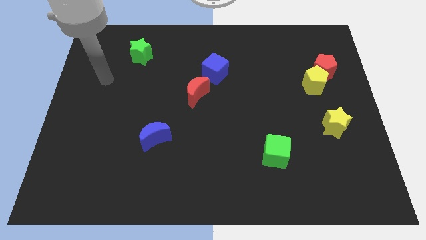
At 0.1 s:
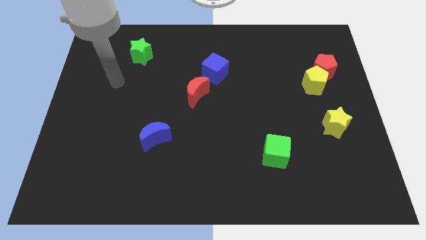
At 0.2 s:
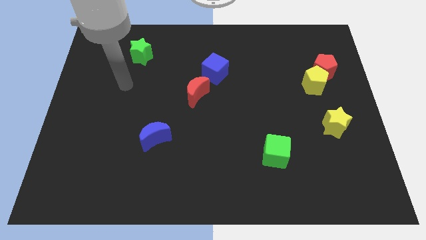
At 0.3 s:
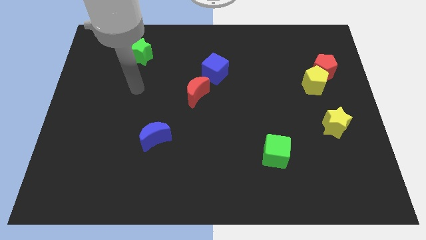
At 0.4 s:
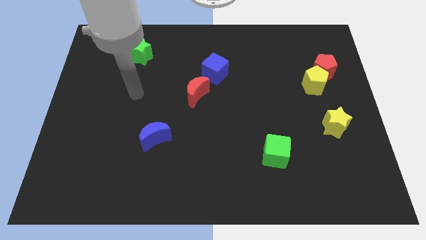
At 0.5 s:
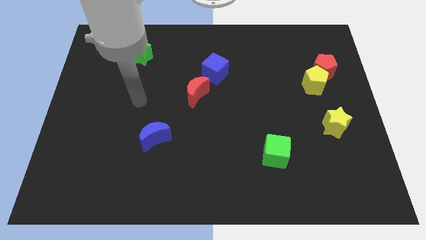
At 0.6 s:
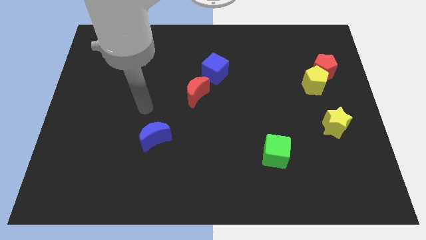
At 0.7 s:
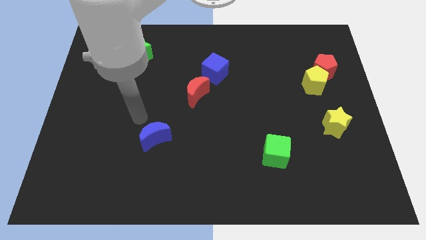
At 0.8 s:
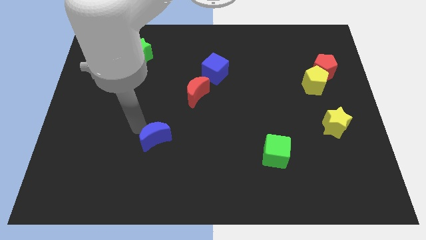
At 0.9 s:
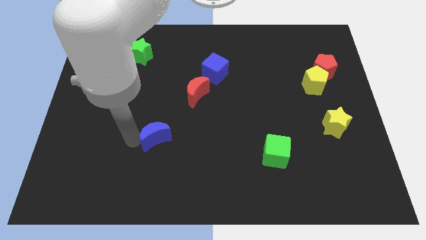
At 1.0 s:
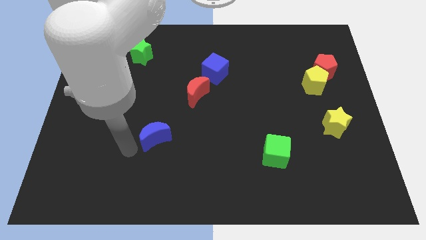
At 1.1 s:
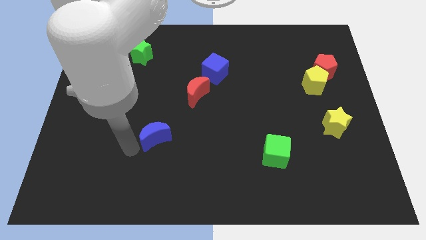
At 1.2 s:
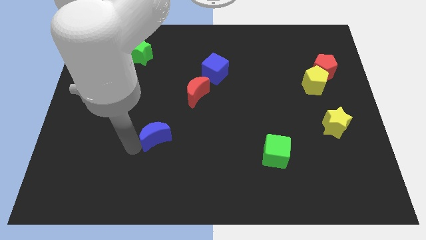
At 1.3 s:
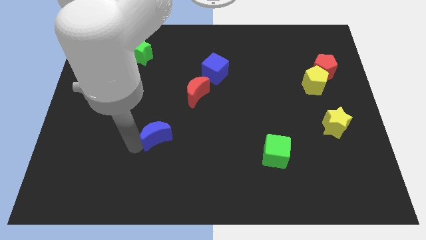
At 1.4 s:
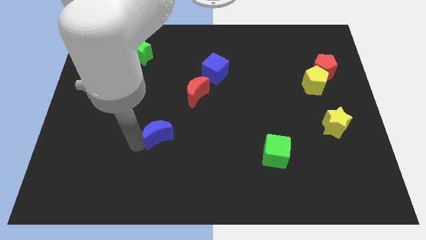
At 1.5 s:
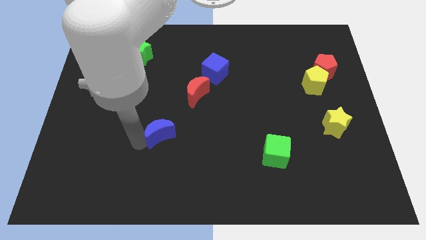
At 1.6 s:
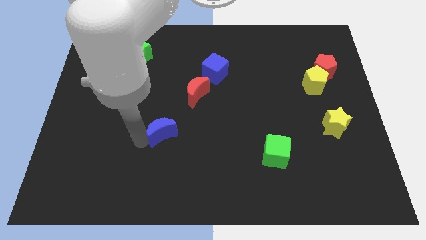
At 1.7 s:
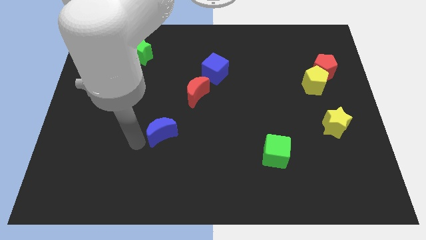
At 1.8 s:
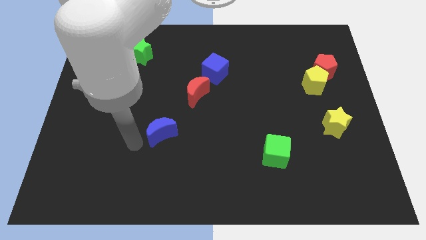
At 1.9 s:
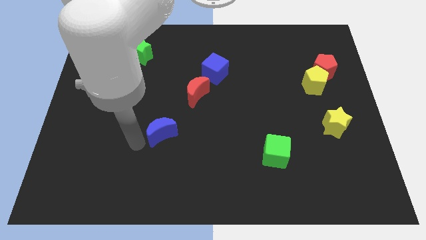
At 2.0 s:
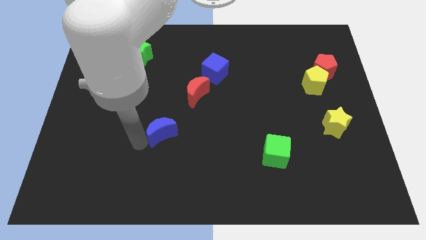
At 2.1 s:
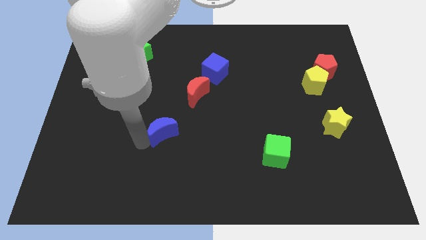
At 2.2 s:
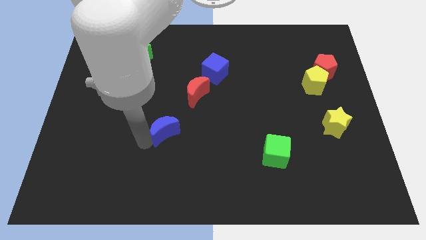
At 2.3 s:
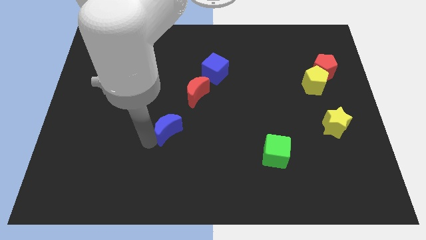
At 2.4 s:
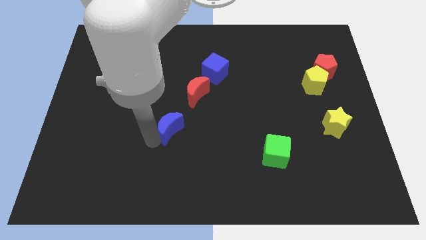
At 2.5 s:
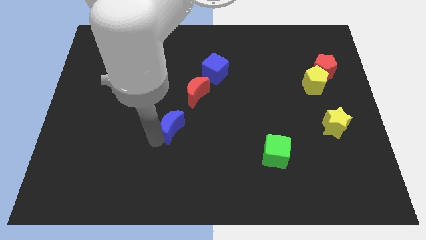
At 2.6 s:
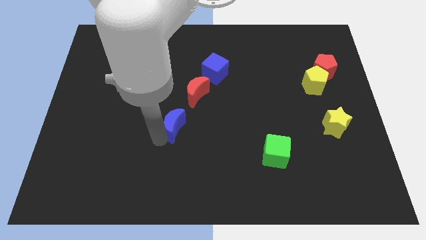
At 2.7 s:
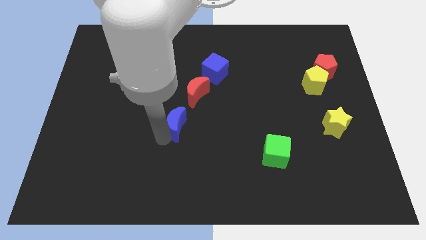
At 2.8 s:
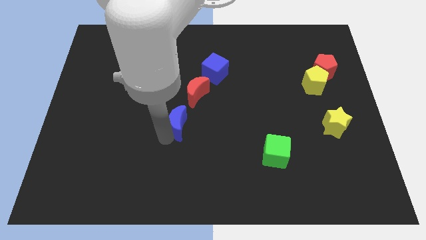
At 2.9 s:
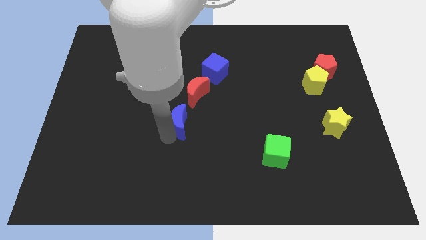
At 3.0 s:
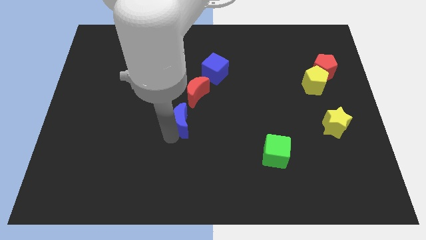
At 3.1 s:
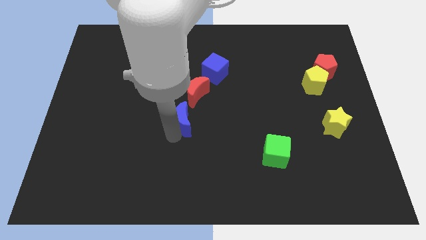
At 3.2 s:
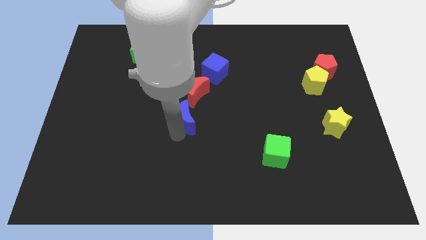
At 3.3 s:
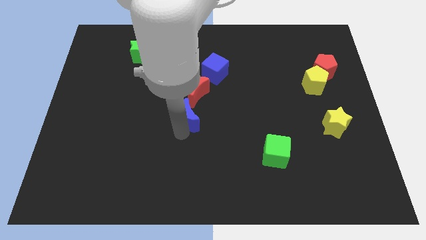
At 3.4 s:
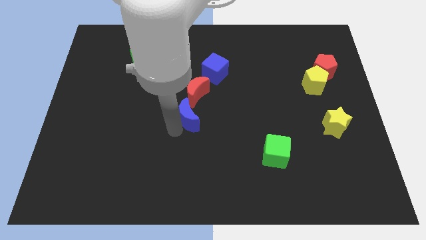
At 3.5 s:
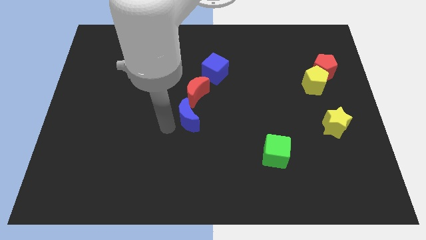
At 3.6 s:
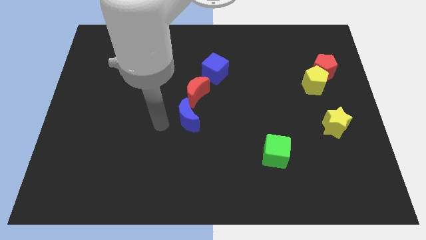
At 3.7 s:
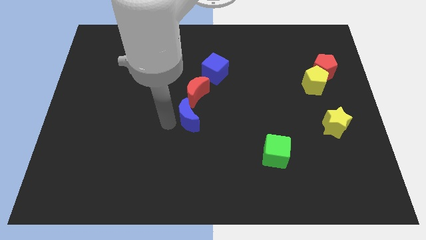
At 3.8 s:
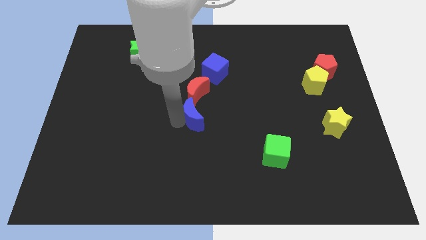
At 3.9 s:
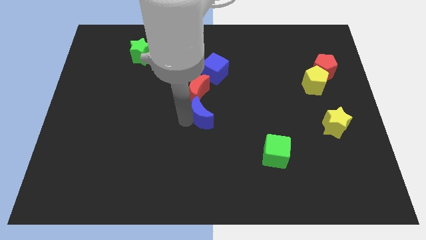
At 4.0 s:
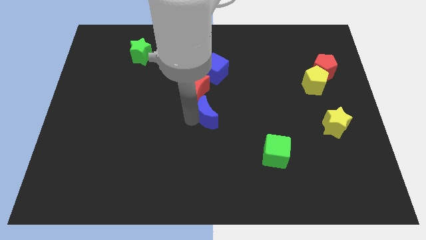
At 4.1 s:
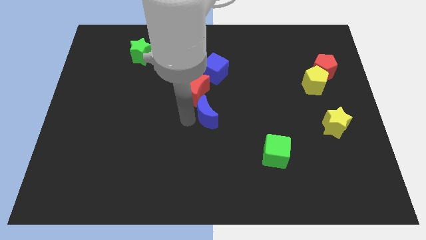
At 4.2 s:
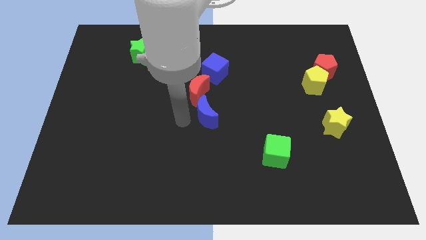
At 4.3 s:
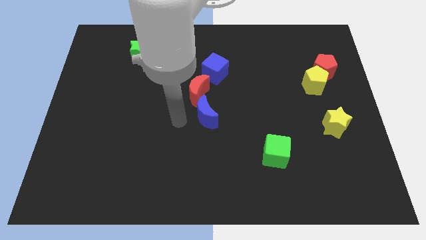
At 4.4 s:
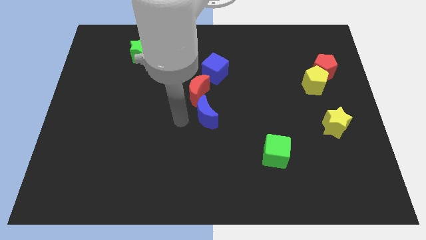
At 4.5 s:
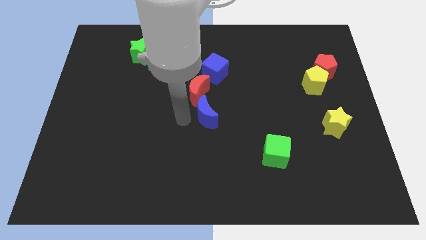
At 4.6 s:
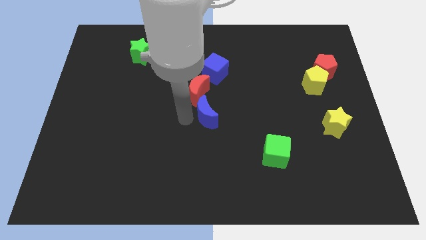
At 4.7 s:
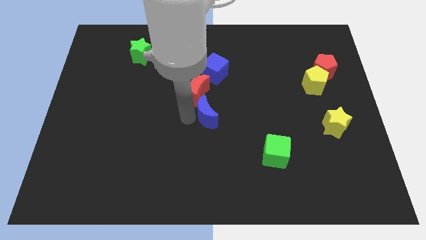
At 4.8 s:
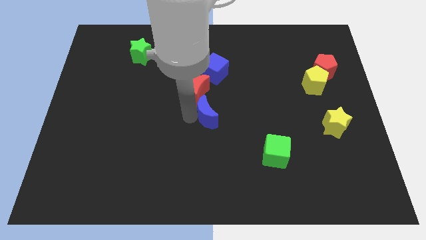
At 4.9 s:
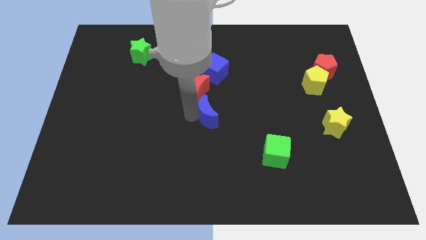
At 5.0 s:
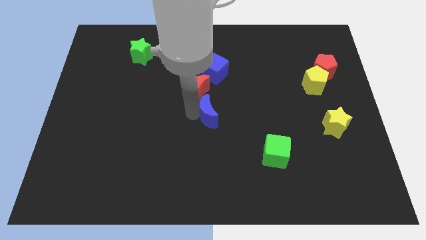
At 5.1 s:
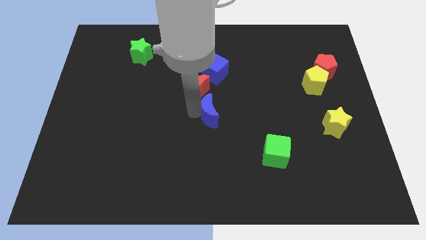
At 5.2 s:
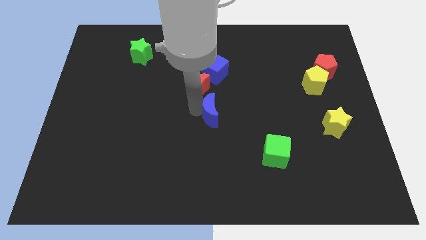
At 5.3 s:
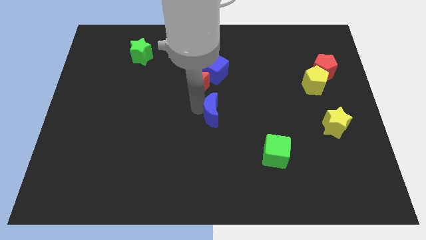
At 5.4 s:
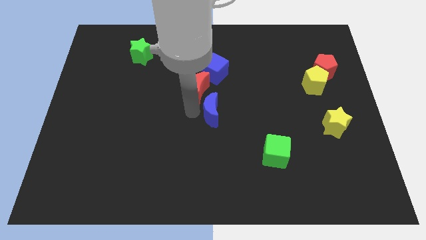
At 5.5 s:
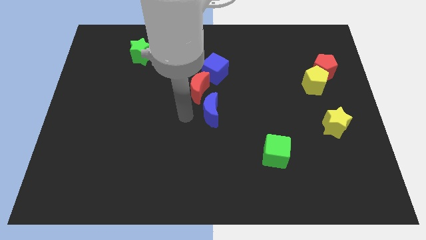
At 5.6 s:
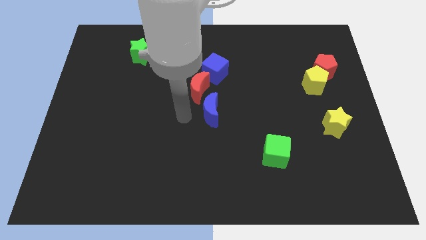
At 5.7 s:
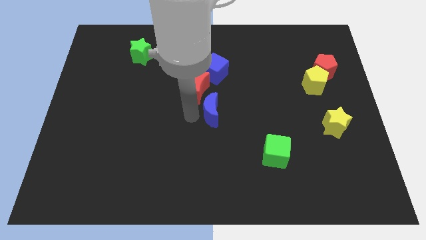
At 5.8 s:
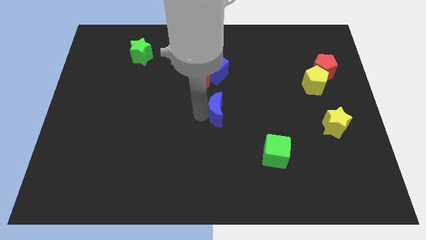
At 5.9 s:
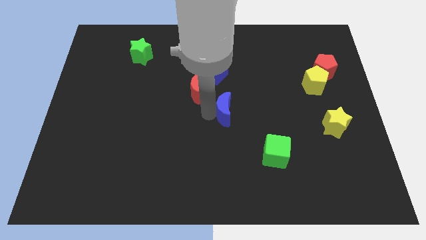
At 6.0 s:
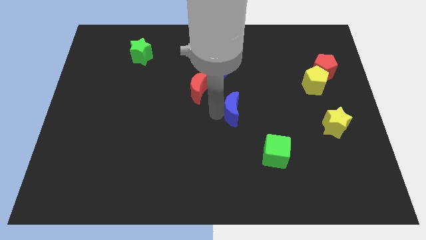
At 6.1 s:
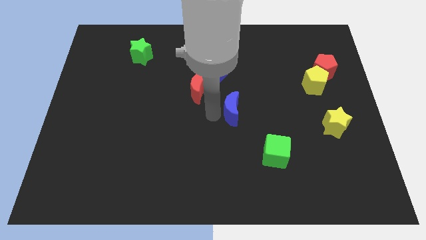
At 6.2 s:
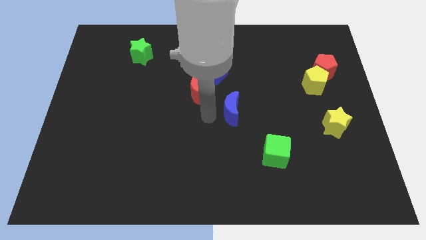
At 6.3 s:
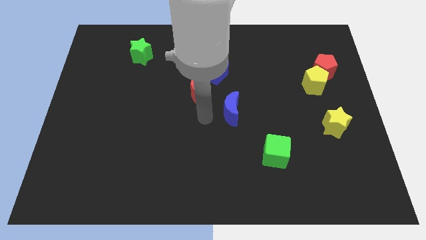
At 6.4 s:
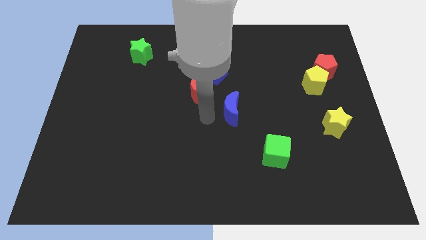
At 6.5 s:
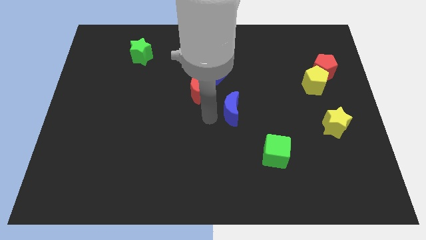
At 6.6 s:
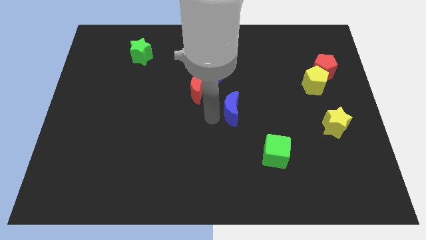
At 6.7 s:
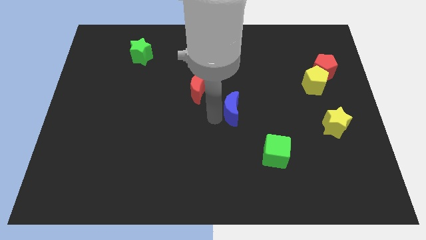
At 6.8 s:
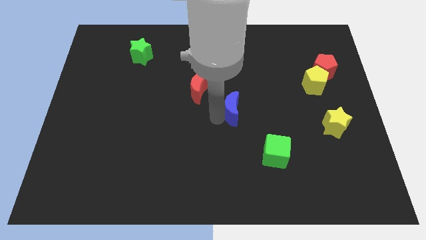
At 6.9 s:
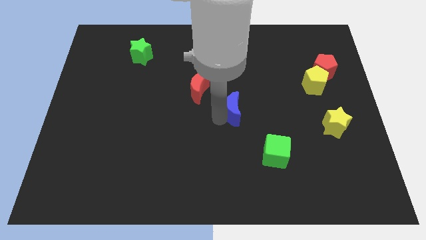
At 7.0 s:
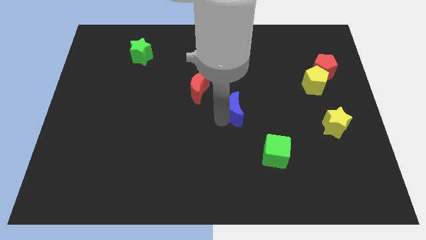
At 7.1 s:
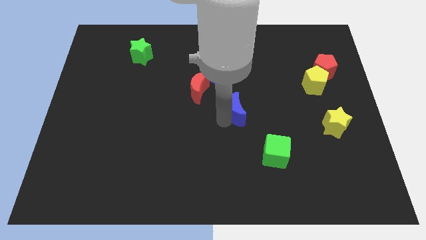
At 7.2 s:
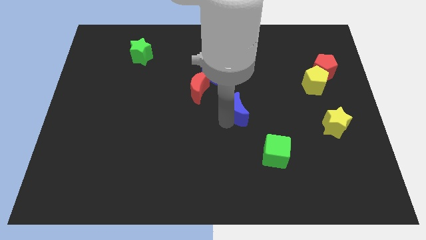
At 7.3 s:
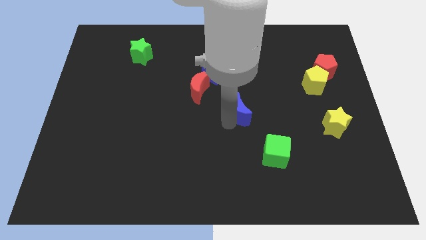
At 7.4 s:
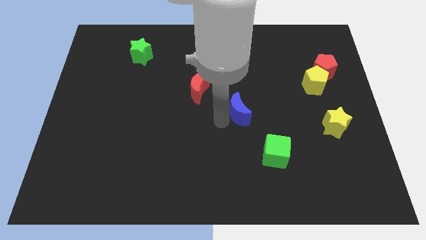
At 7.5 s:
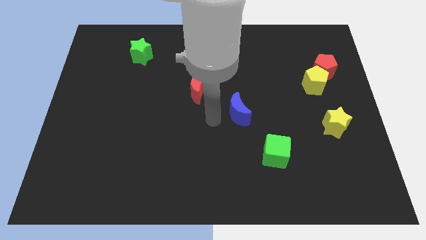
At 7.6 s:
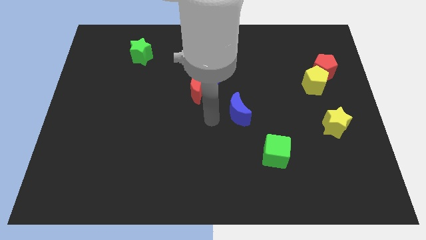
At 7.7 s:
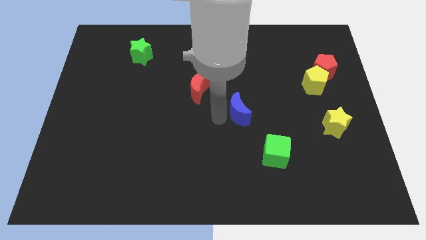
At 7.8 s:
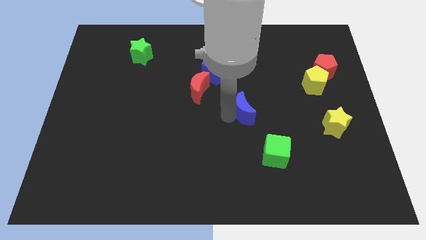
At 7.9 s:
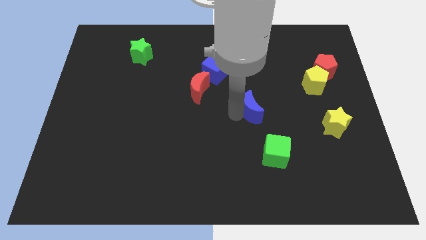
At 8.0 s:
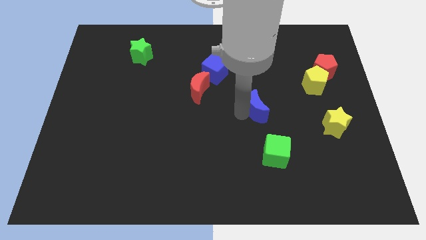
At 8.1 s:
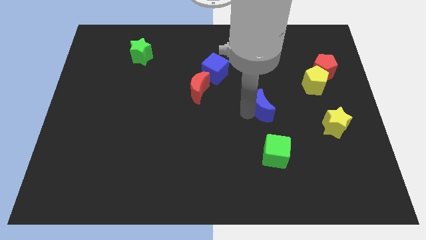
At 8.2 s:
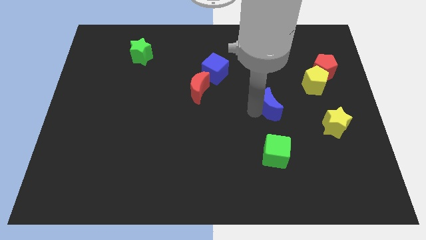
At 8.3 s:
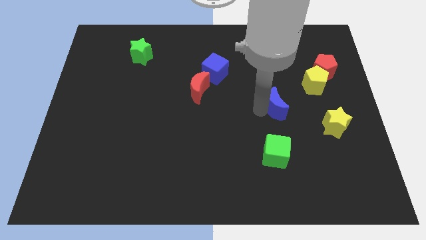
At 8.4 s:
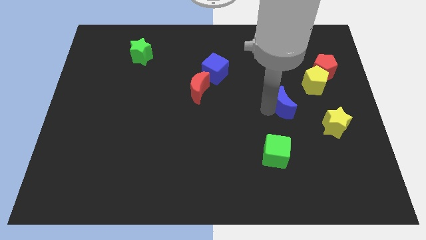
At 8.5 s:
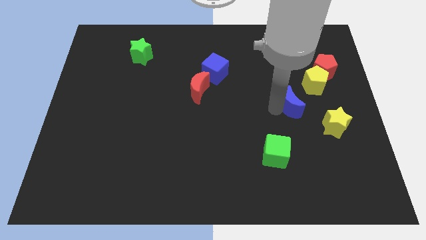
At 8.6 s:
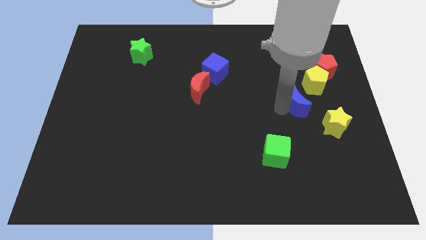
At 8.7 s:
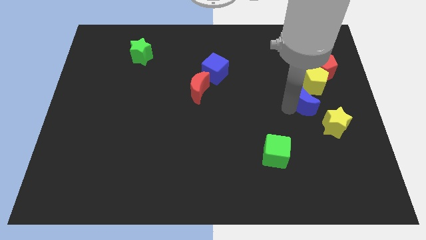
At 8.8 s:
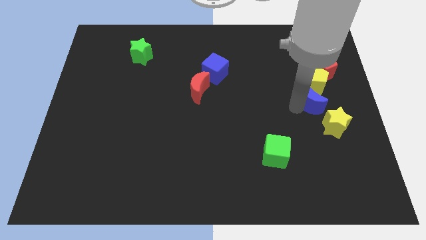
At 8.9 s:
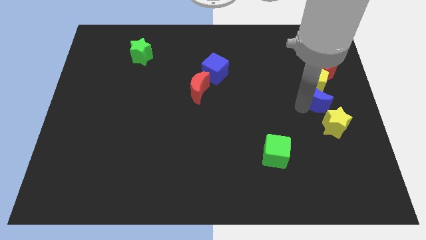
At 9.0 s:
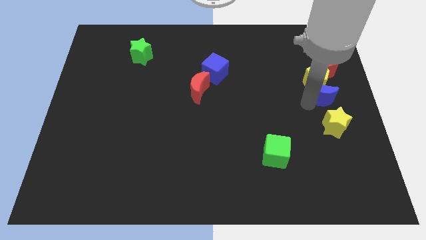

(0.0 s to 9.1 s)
slide the blue moon to the right side of the board
